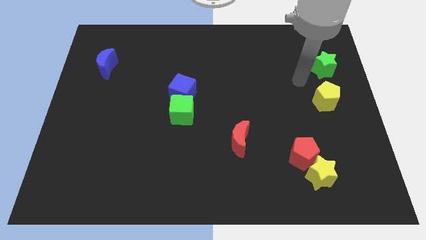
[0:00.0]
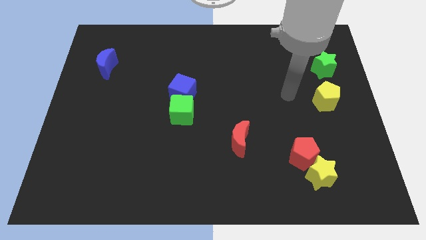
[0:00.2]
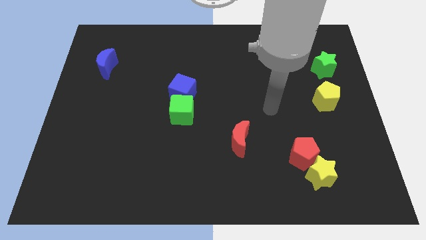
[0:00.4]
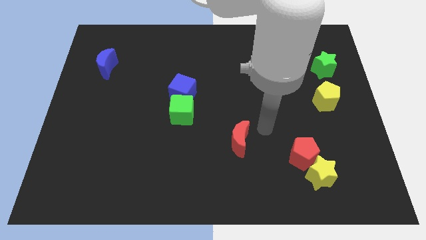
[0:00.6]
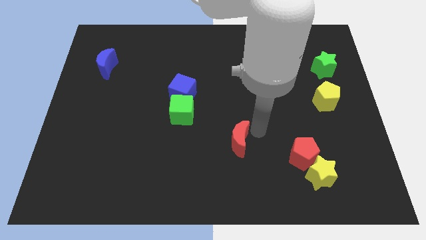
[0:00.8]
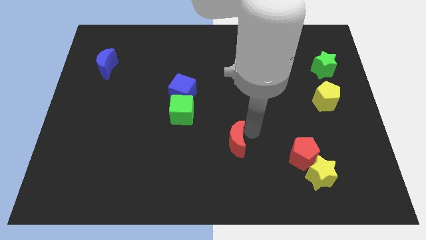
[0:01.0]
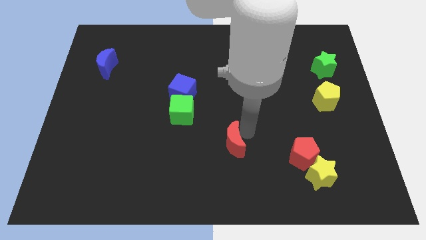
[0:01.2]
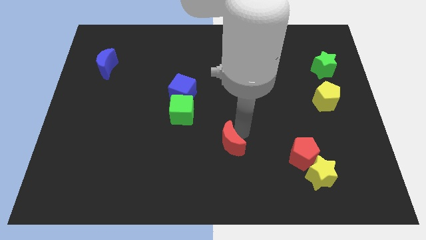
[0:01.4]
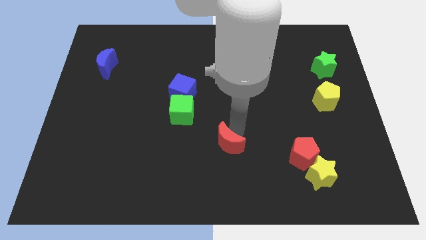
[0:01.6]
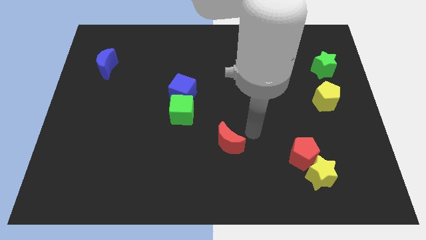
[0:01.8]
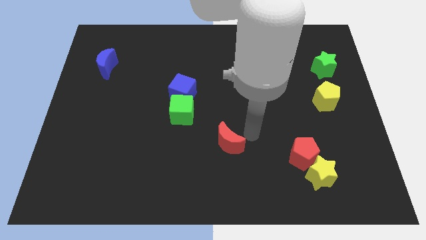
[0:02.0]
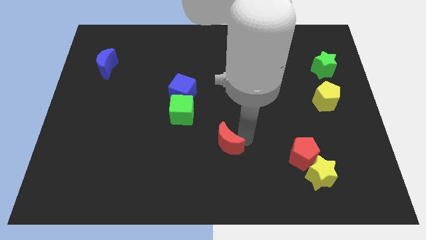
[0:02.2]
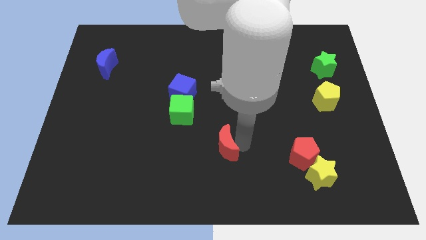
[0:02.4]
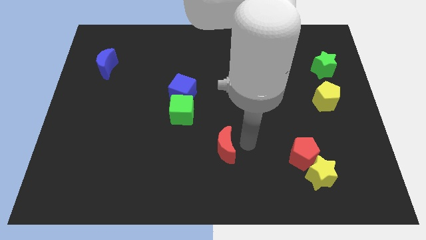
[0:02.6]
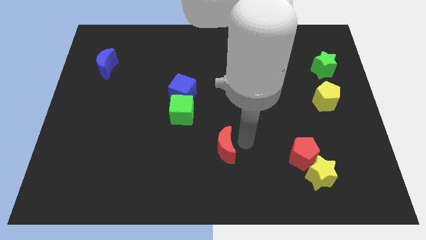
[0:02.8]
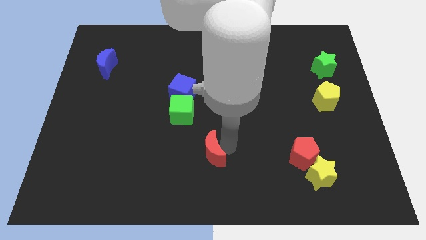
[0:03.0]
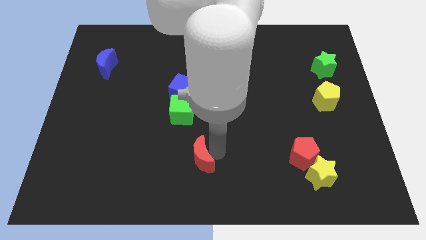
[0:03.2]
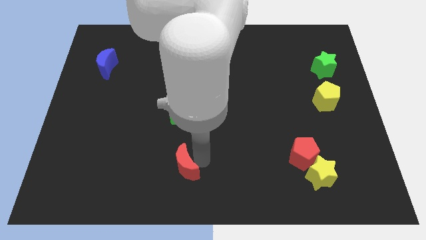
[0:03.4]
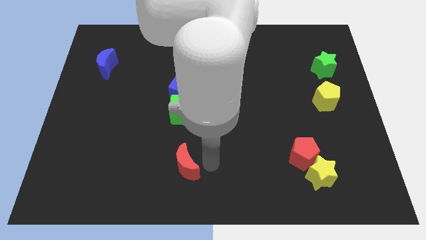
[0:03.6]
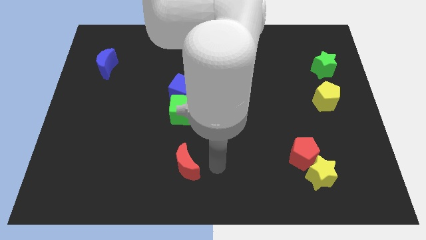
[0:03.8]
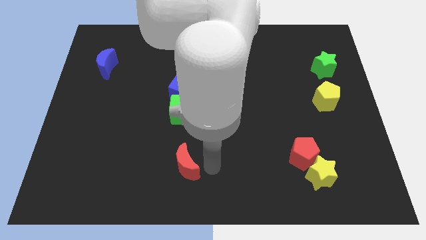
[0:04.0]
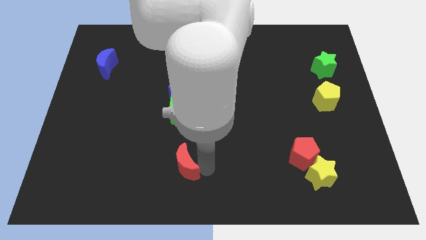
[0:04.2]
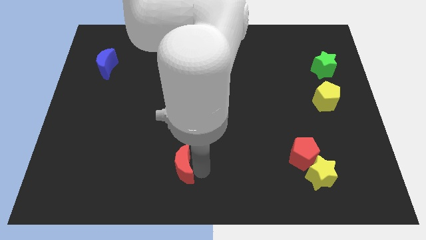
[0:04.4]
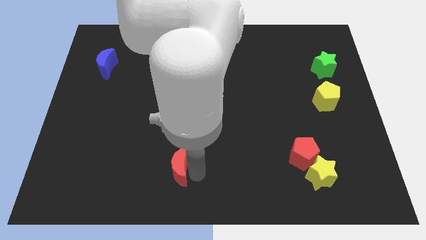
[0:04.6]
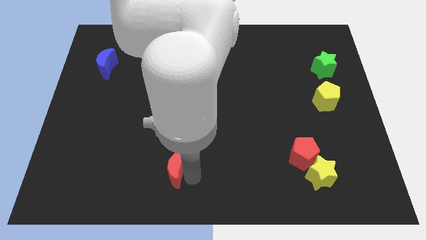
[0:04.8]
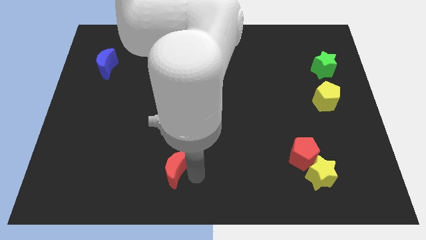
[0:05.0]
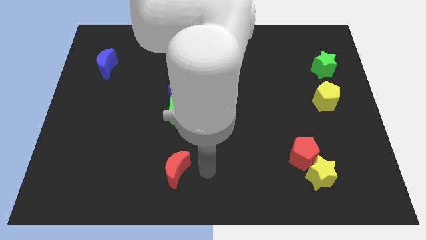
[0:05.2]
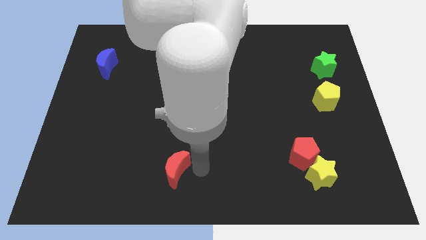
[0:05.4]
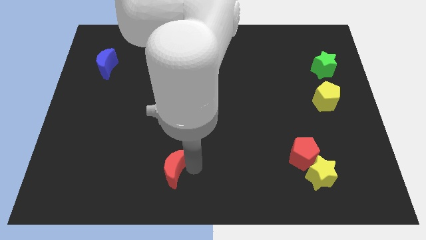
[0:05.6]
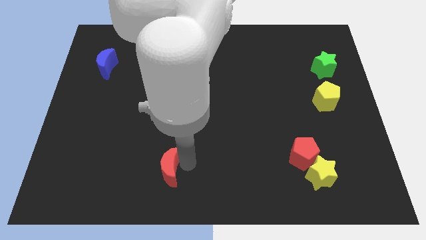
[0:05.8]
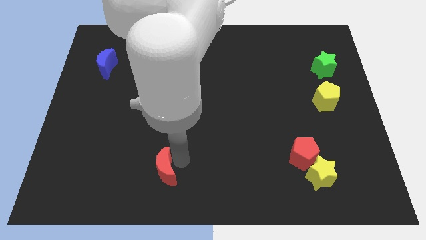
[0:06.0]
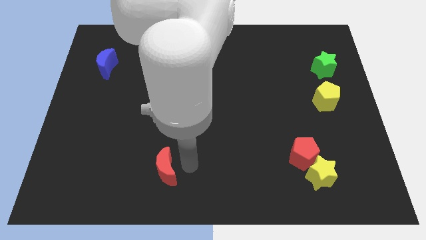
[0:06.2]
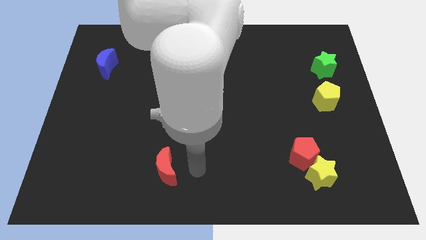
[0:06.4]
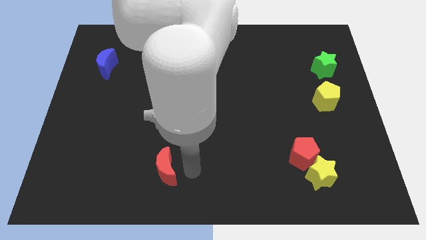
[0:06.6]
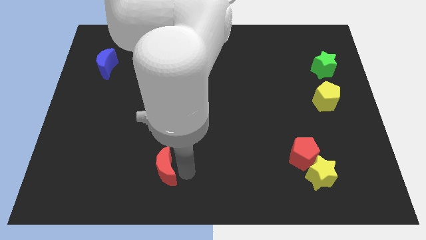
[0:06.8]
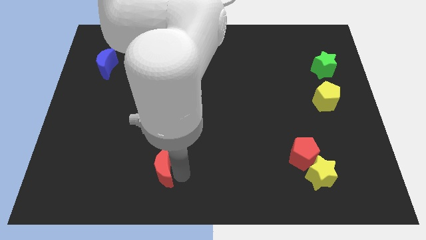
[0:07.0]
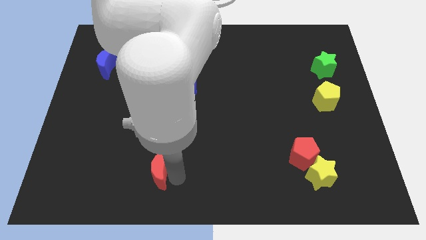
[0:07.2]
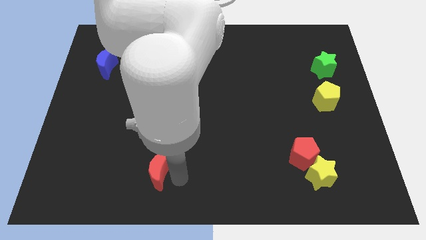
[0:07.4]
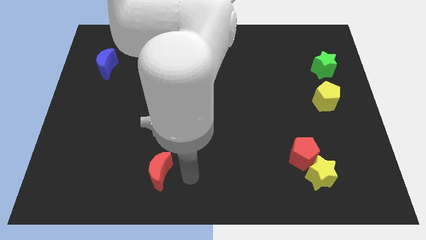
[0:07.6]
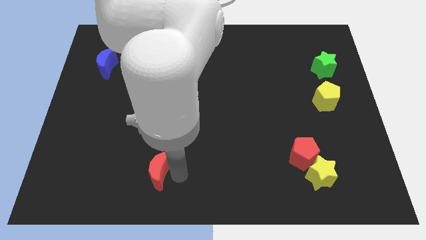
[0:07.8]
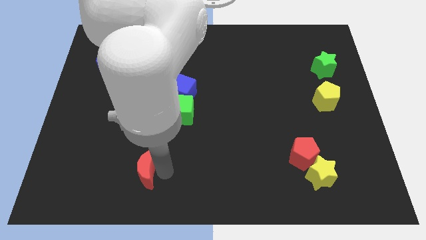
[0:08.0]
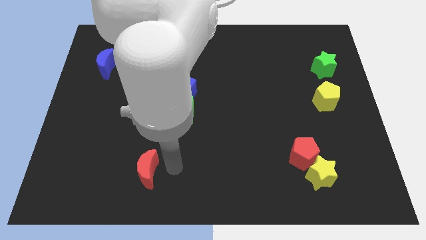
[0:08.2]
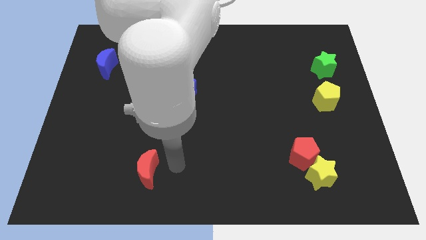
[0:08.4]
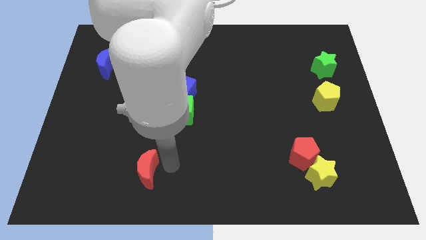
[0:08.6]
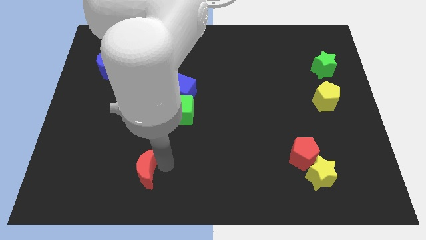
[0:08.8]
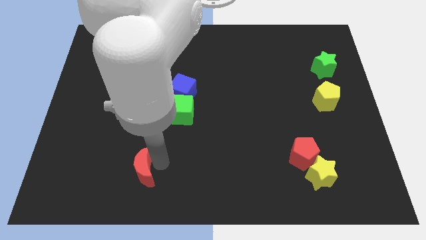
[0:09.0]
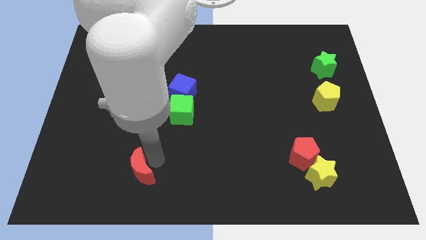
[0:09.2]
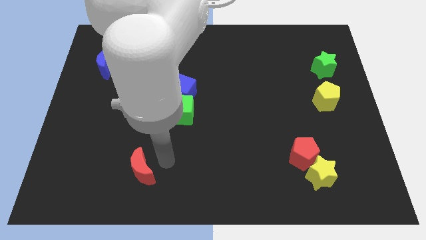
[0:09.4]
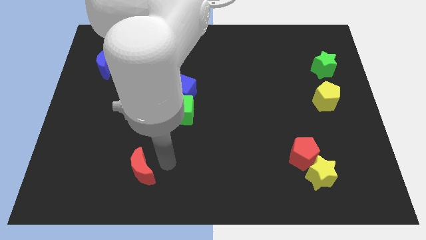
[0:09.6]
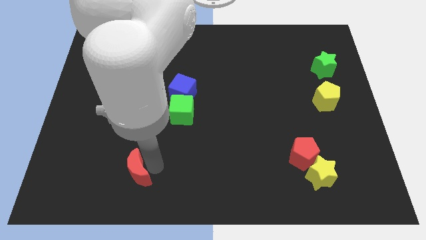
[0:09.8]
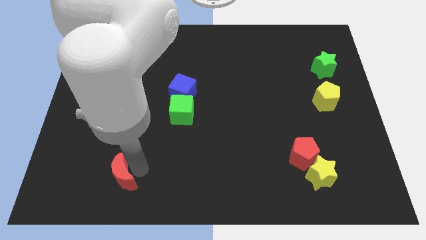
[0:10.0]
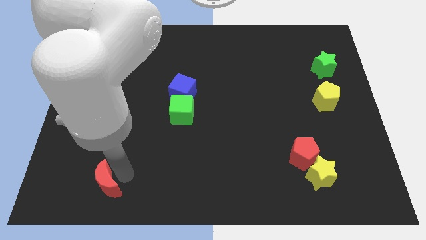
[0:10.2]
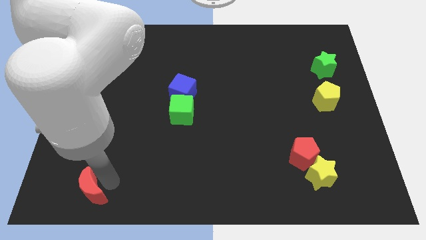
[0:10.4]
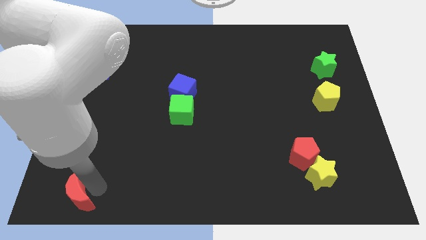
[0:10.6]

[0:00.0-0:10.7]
slide the red moon to the bottom left

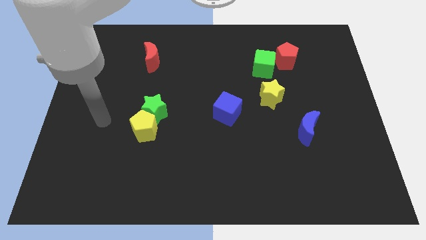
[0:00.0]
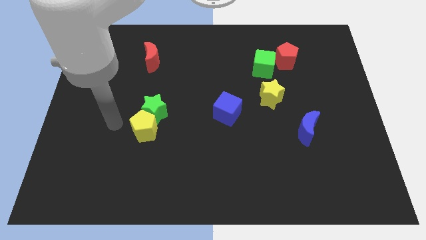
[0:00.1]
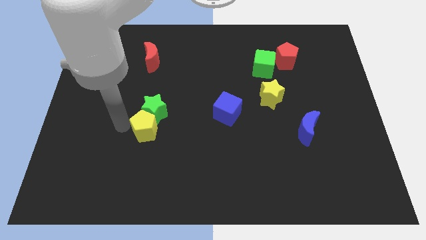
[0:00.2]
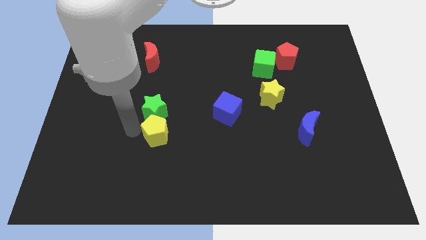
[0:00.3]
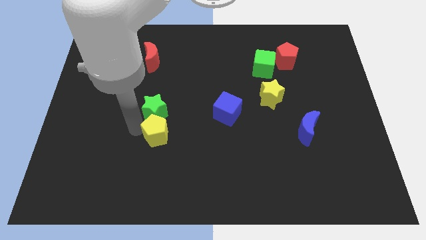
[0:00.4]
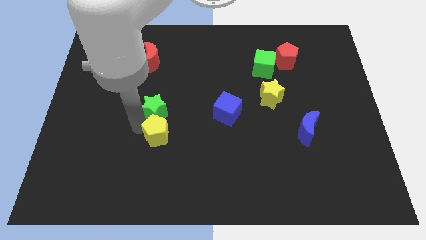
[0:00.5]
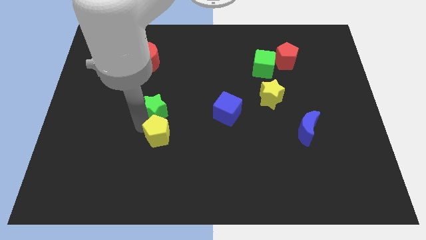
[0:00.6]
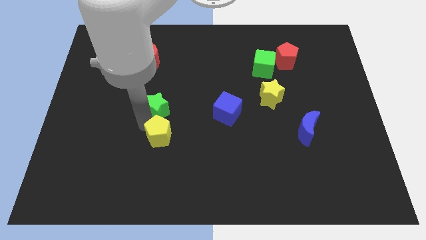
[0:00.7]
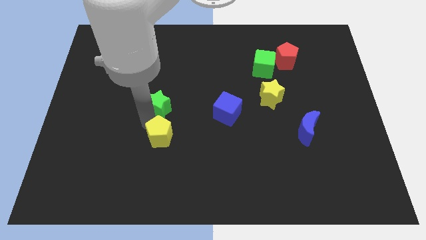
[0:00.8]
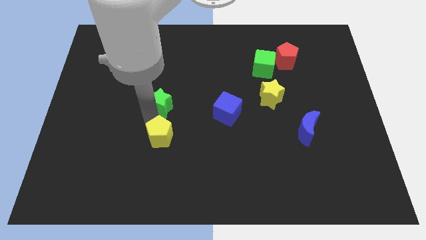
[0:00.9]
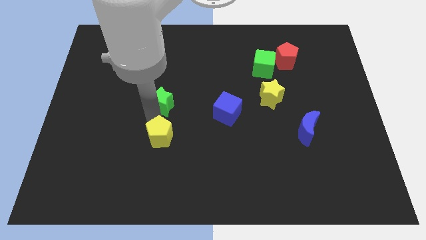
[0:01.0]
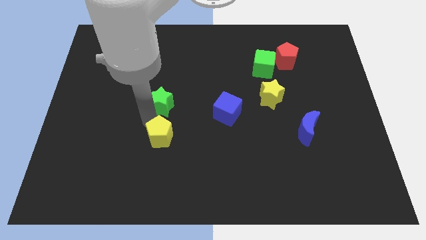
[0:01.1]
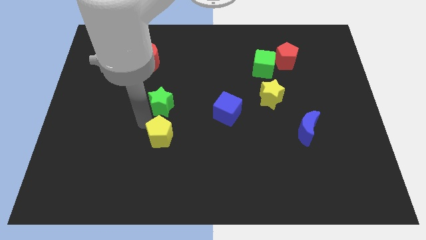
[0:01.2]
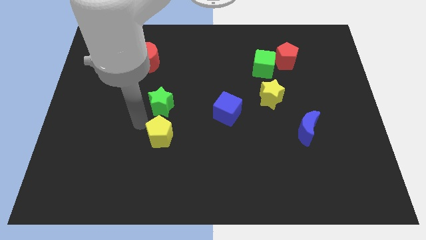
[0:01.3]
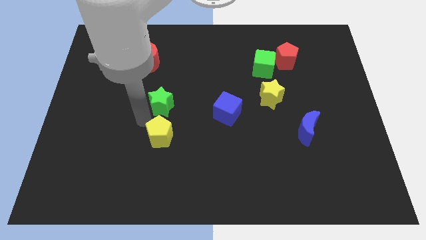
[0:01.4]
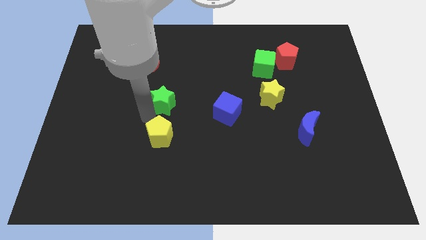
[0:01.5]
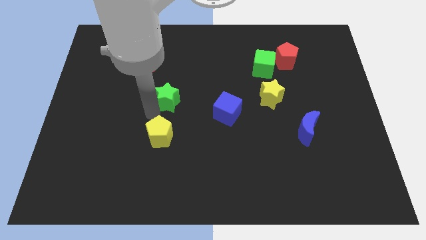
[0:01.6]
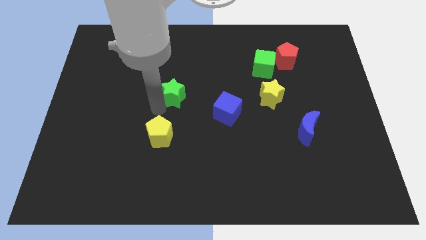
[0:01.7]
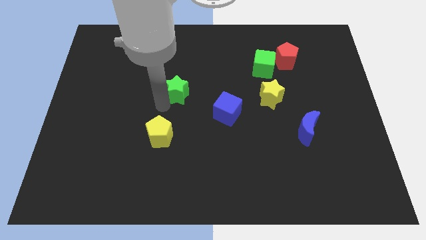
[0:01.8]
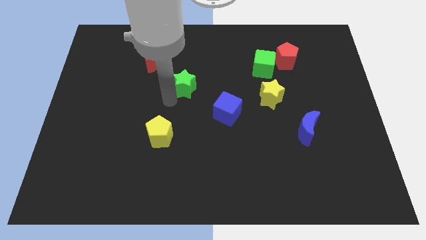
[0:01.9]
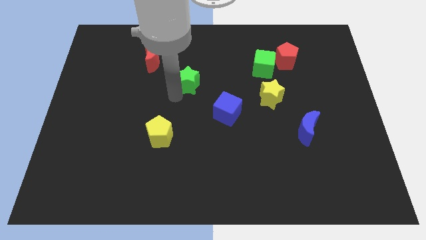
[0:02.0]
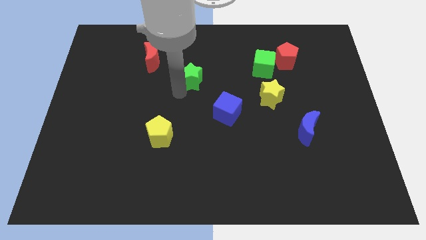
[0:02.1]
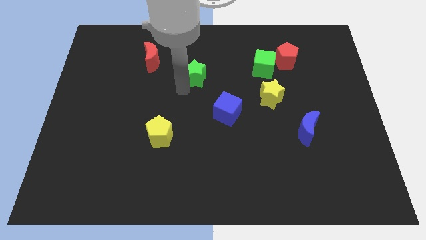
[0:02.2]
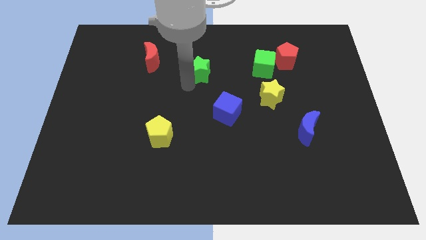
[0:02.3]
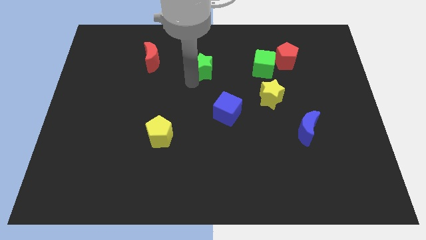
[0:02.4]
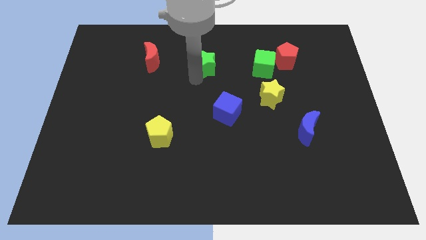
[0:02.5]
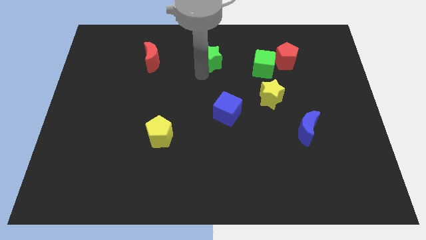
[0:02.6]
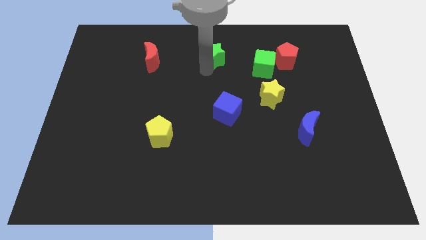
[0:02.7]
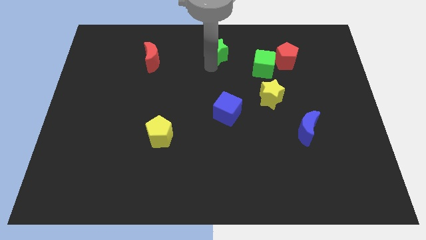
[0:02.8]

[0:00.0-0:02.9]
move the green star to the top

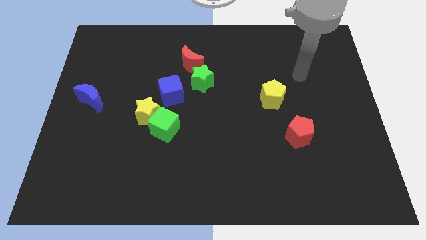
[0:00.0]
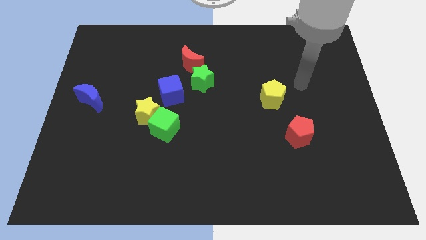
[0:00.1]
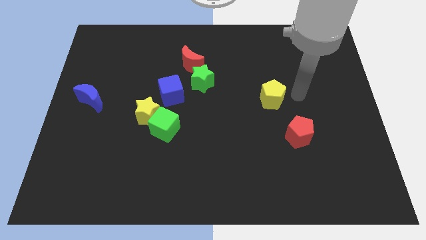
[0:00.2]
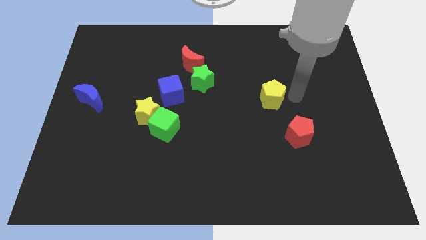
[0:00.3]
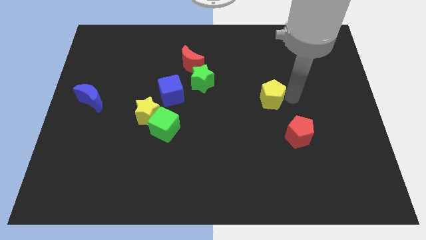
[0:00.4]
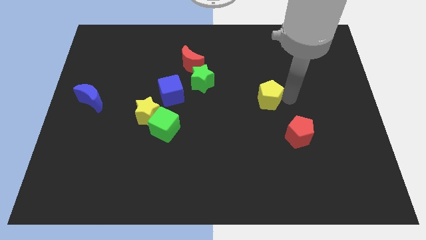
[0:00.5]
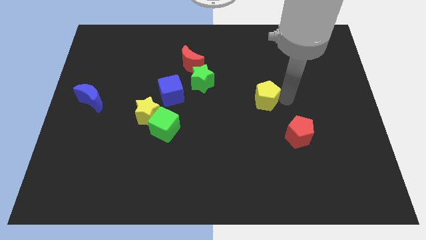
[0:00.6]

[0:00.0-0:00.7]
push the yellow pentagon to the middle of the board
